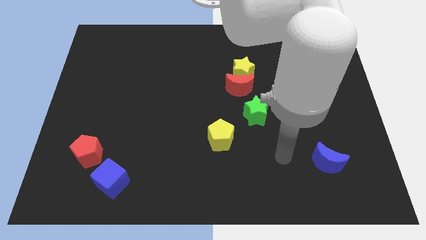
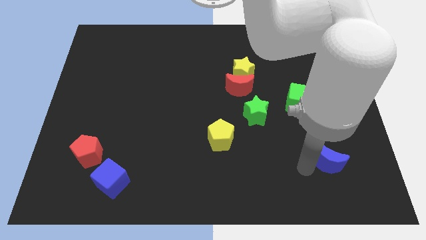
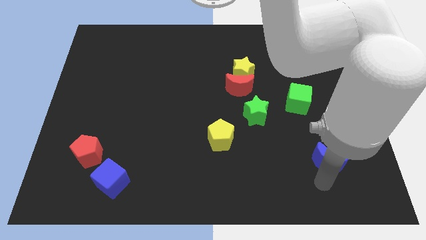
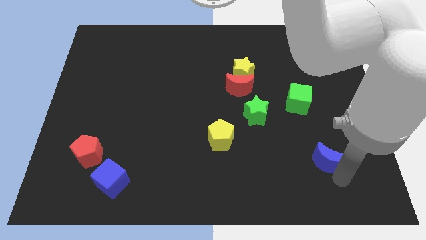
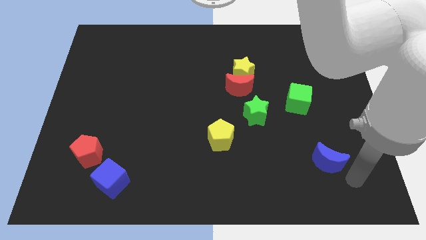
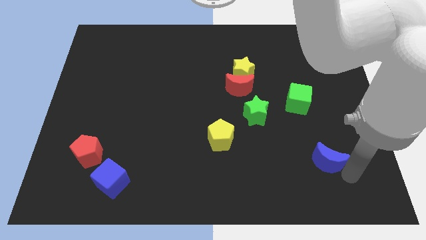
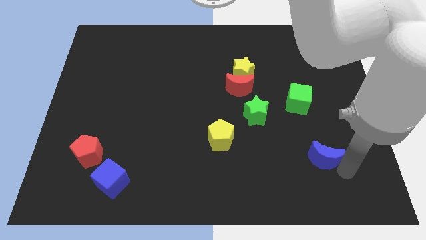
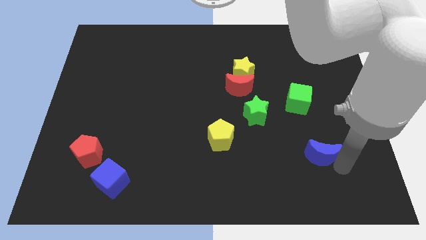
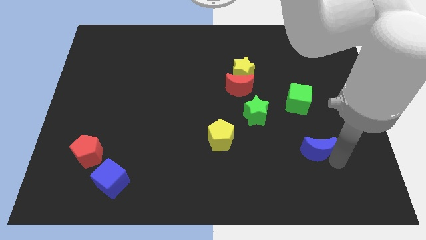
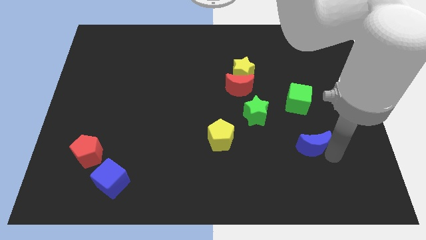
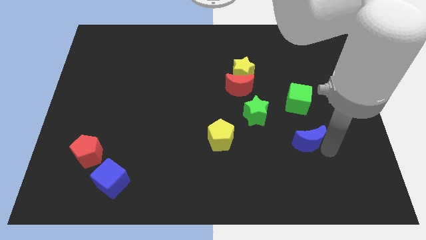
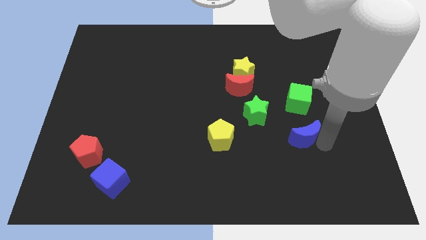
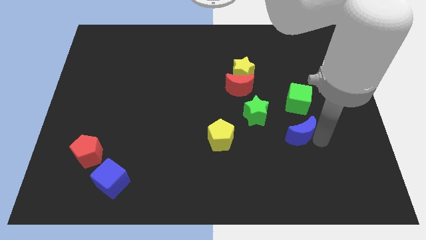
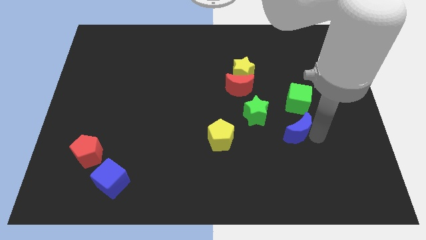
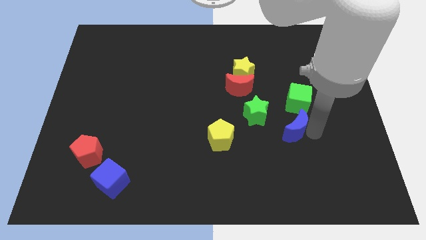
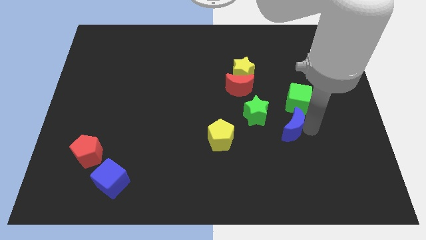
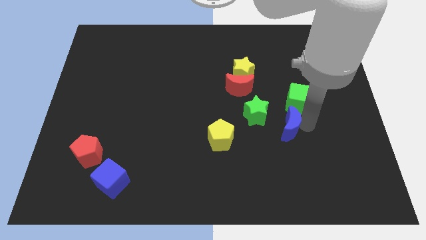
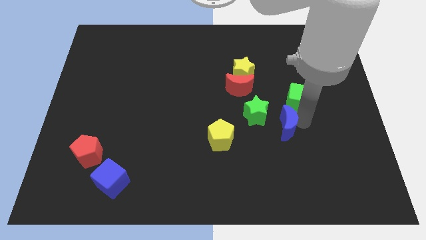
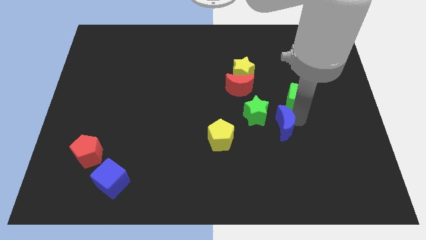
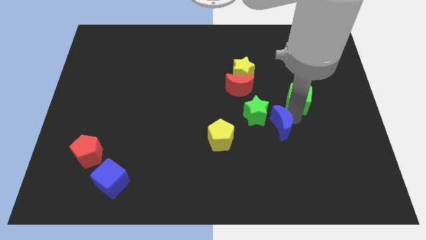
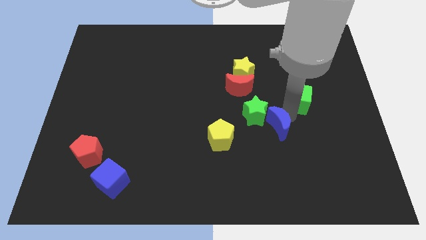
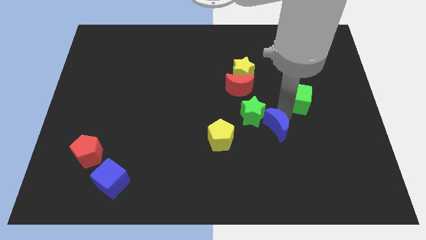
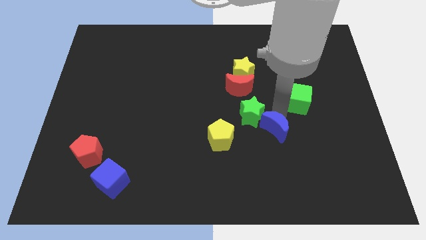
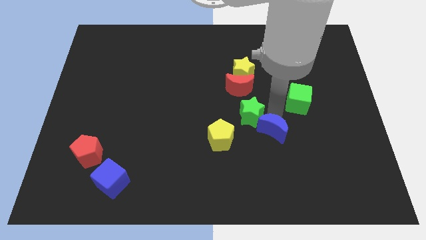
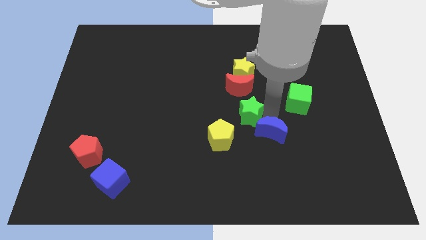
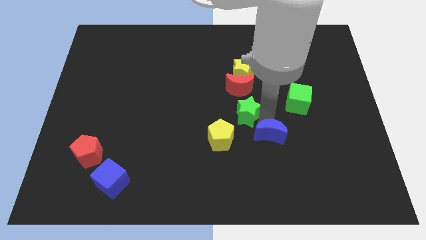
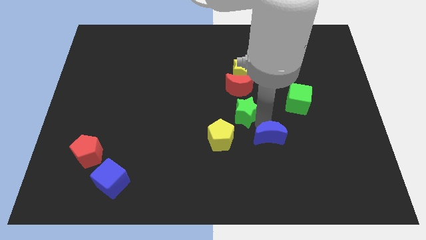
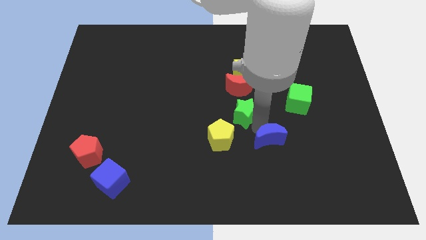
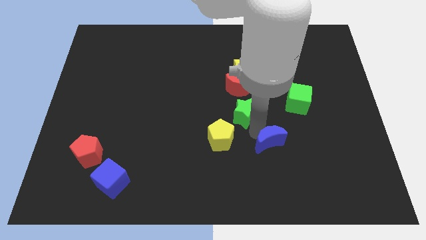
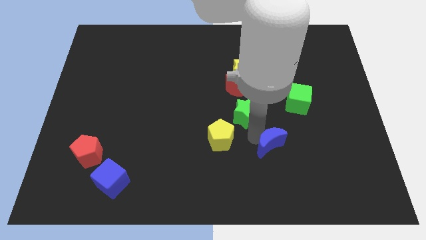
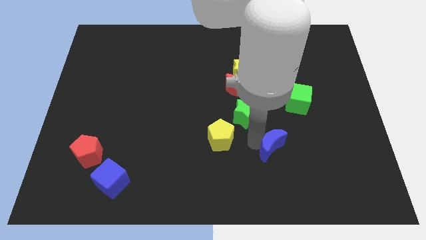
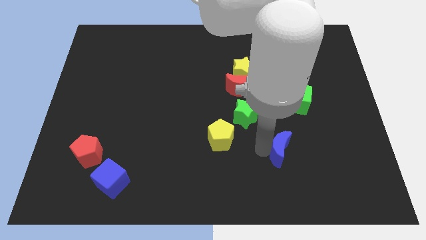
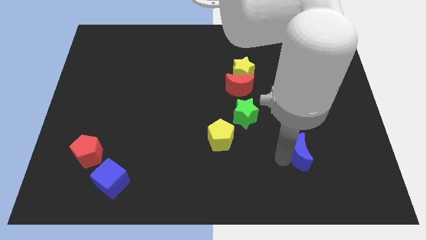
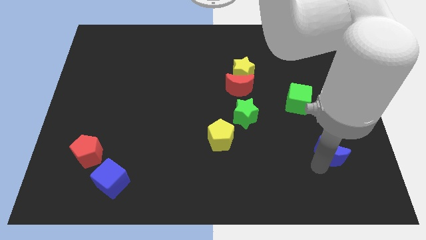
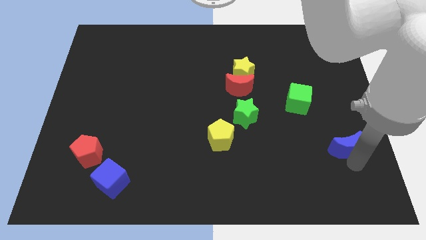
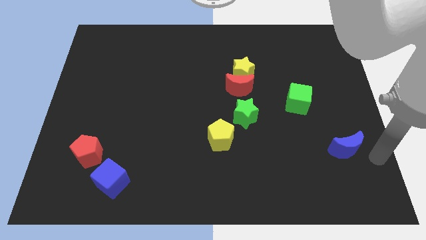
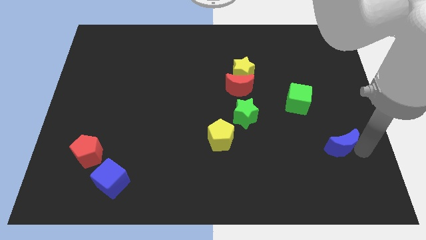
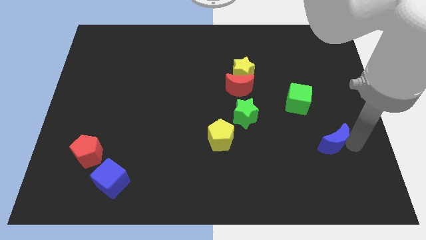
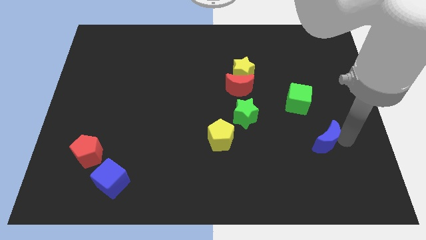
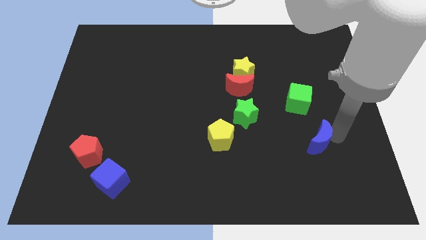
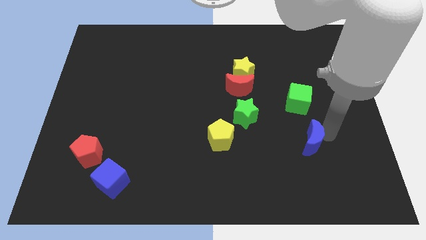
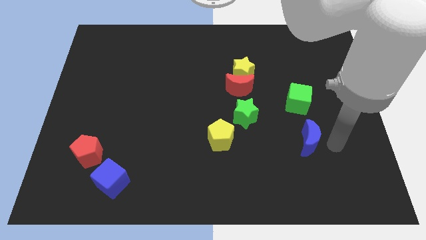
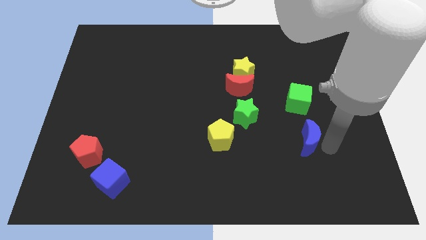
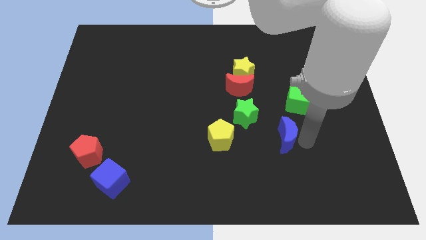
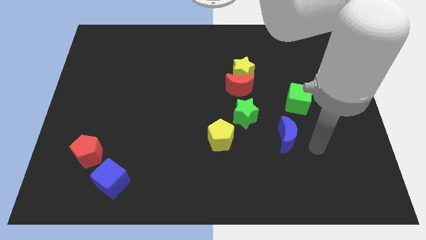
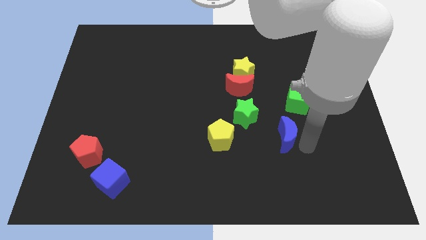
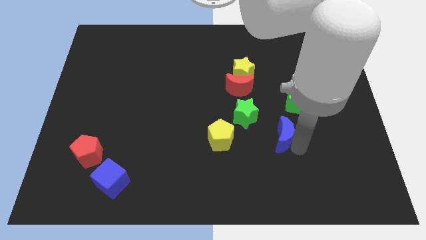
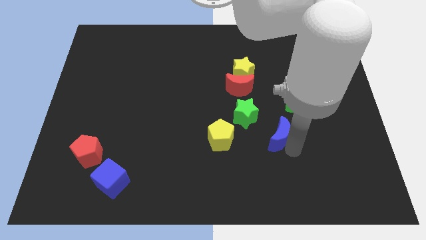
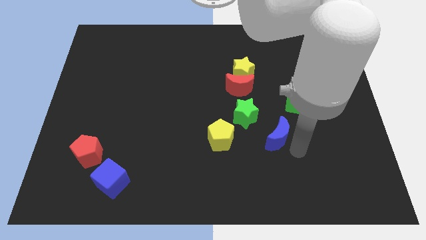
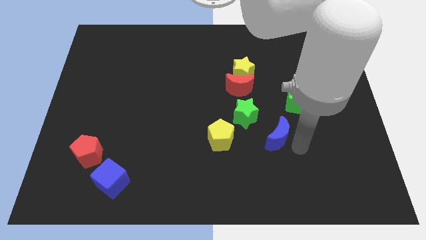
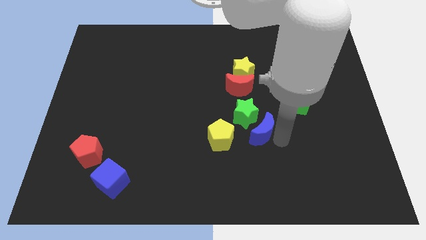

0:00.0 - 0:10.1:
push the blue moon below the red moon
